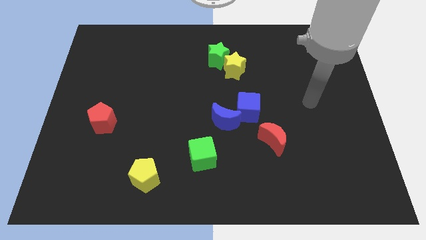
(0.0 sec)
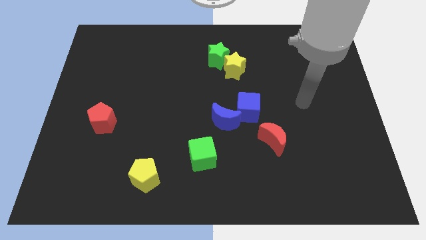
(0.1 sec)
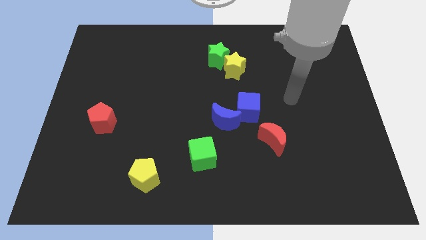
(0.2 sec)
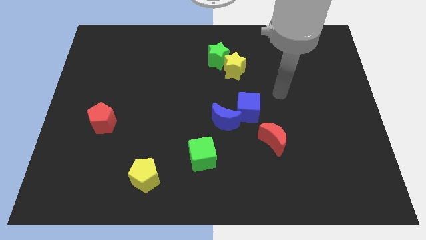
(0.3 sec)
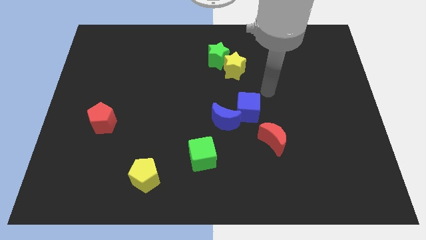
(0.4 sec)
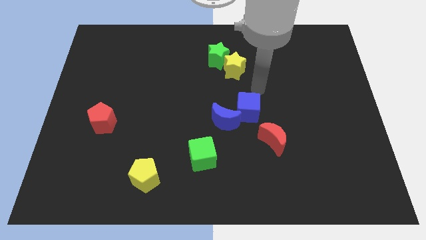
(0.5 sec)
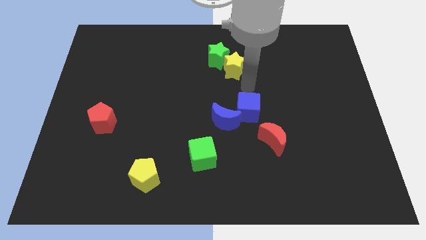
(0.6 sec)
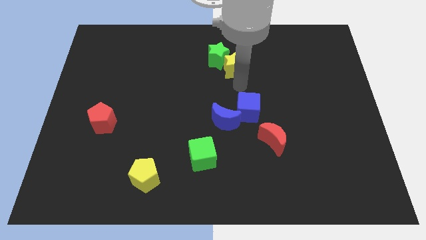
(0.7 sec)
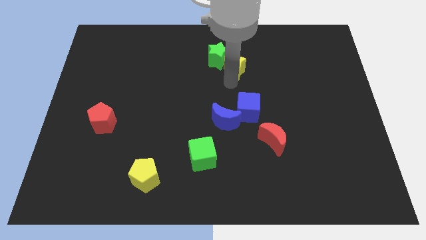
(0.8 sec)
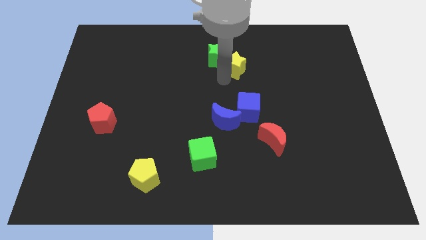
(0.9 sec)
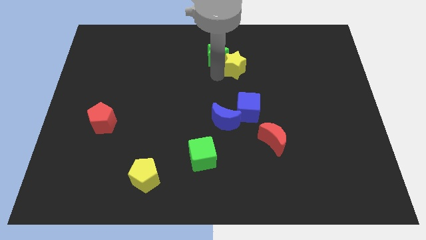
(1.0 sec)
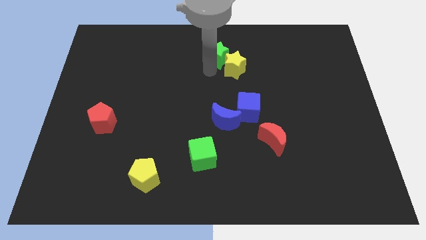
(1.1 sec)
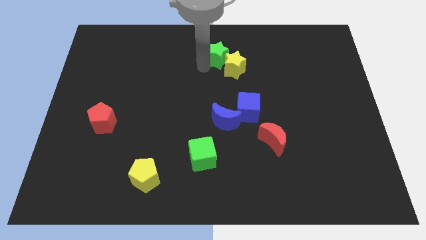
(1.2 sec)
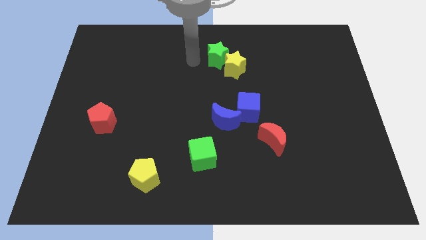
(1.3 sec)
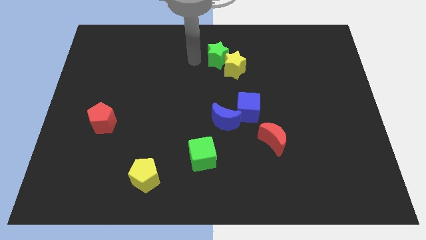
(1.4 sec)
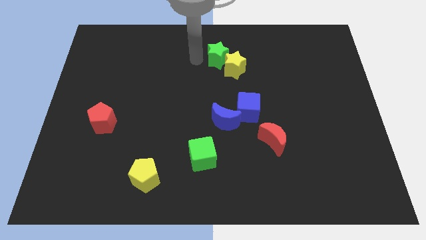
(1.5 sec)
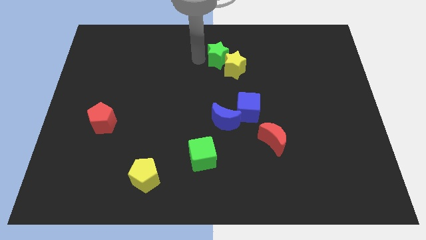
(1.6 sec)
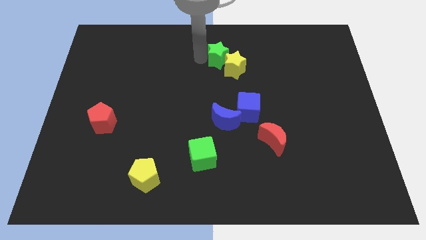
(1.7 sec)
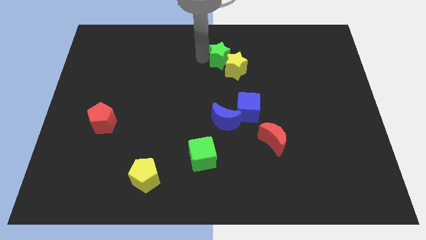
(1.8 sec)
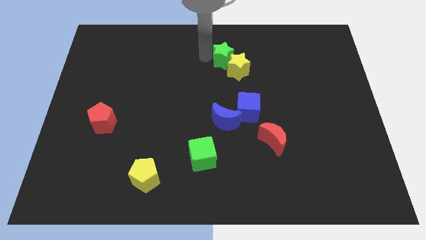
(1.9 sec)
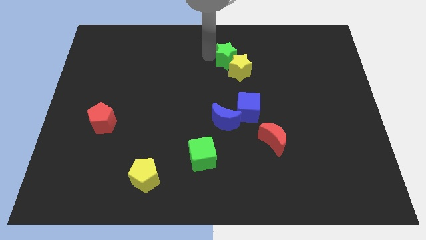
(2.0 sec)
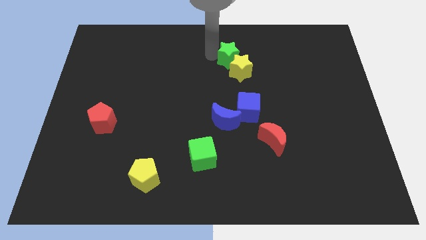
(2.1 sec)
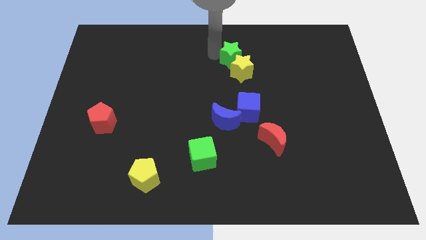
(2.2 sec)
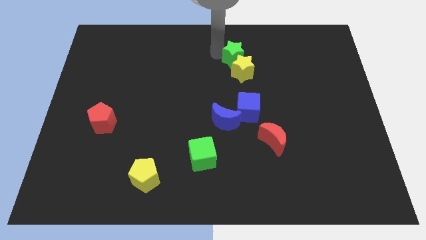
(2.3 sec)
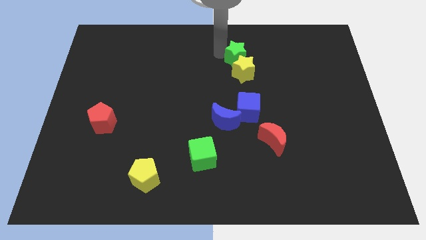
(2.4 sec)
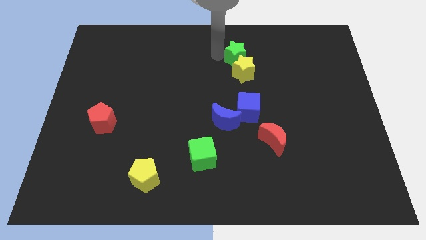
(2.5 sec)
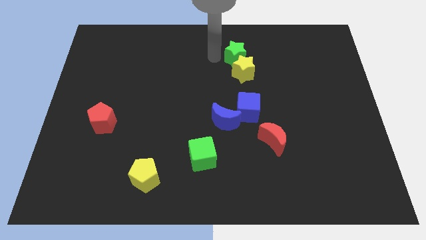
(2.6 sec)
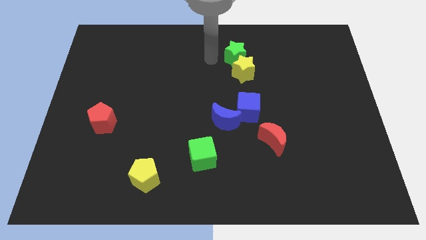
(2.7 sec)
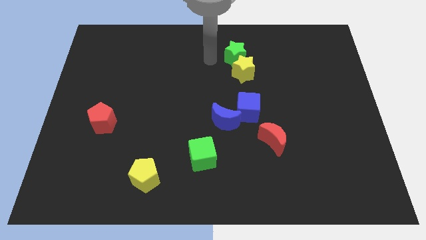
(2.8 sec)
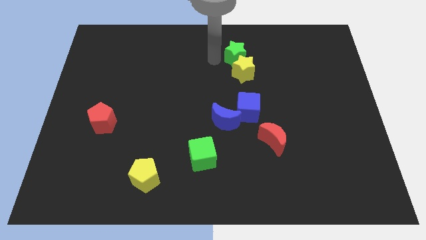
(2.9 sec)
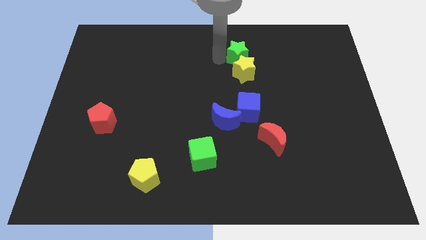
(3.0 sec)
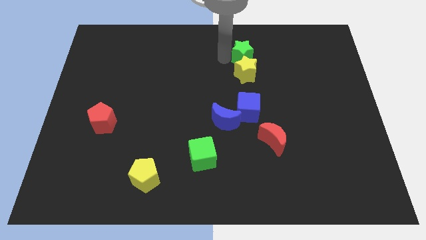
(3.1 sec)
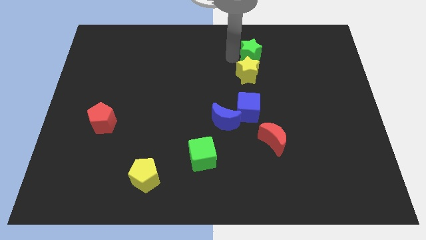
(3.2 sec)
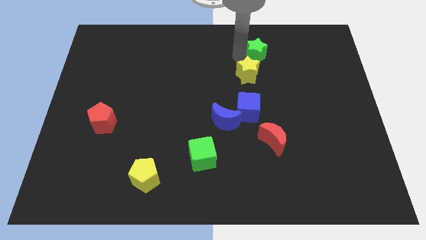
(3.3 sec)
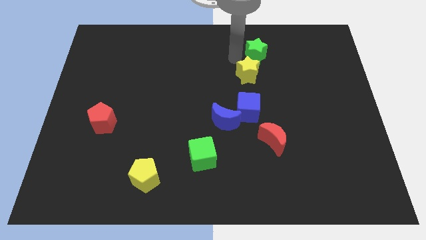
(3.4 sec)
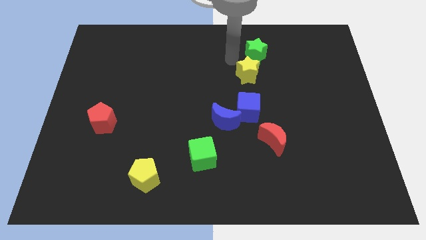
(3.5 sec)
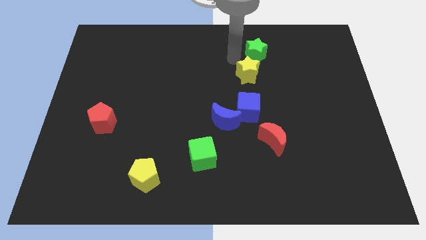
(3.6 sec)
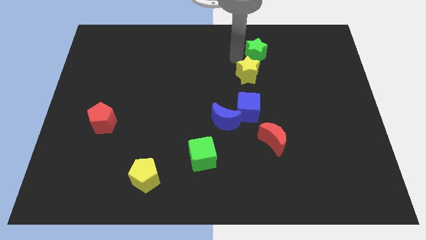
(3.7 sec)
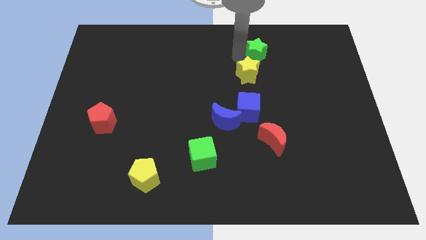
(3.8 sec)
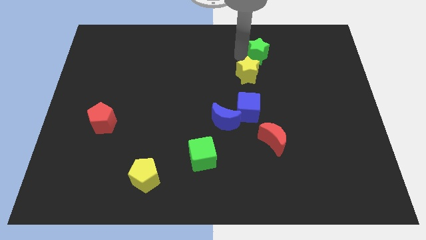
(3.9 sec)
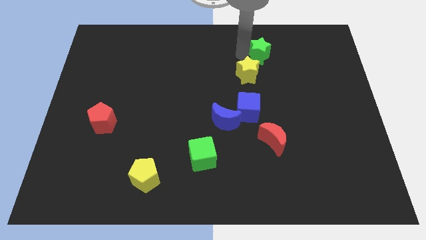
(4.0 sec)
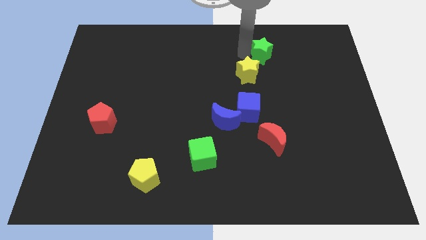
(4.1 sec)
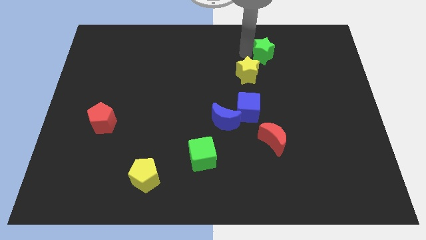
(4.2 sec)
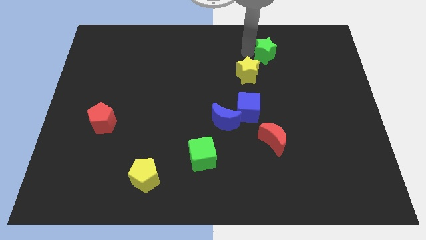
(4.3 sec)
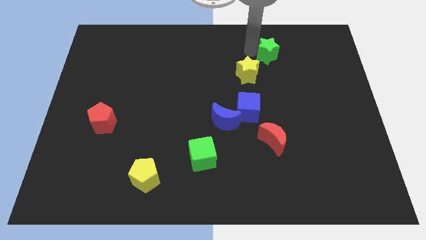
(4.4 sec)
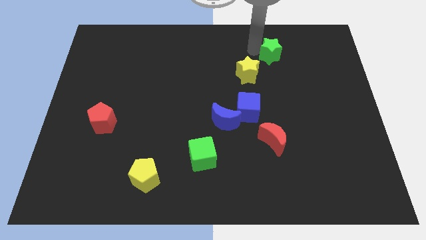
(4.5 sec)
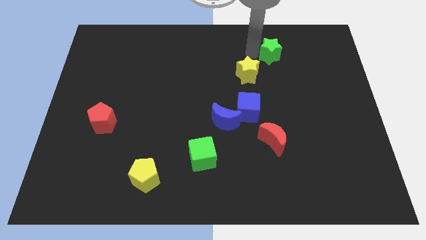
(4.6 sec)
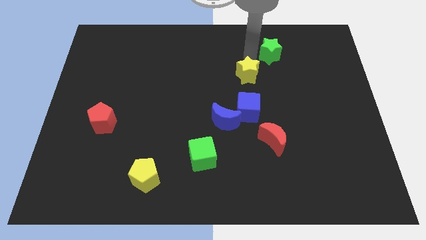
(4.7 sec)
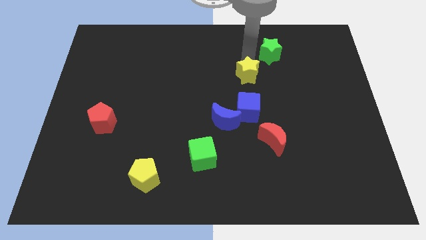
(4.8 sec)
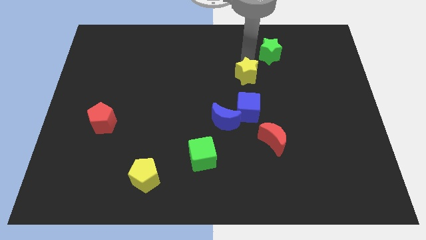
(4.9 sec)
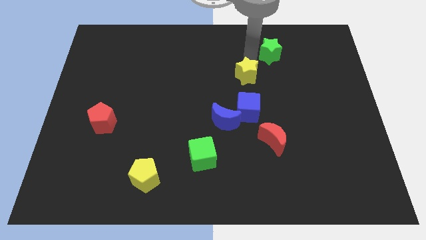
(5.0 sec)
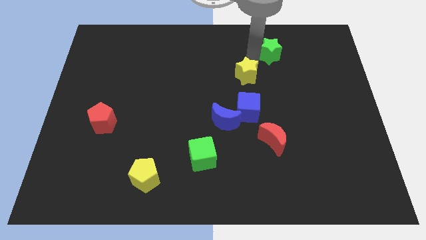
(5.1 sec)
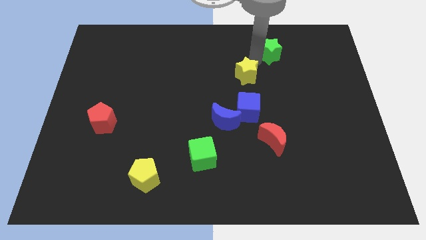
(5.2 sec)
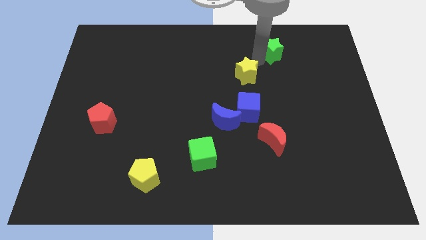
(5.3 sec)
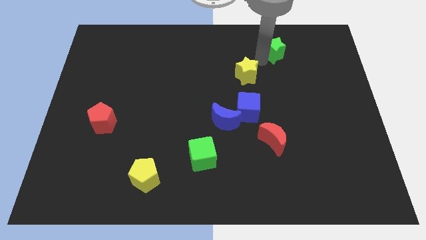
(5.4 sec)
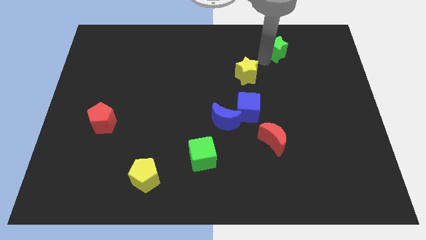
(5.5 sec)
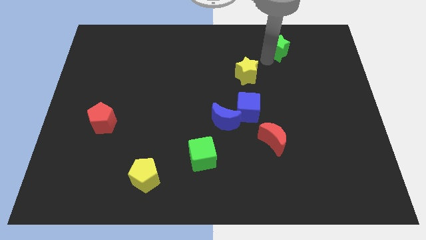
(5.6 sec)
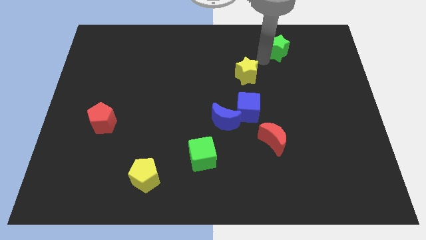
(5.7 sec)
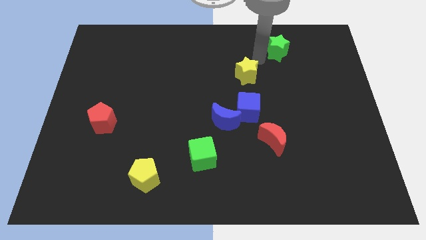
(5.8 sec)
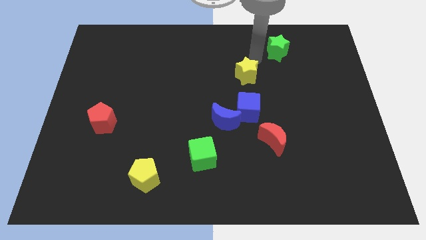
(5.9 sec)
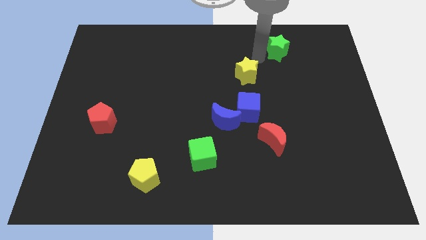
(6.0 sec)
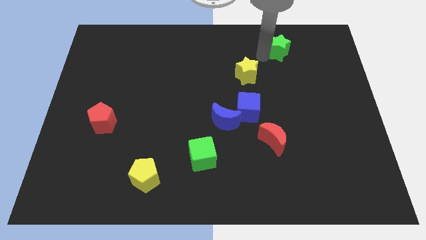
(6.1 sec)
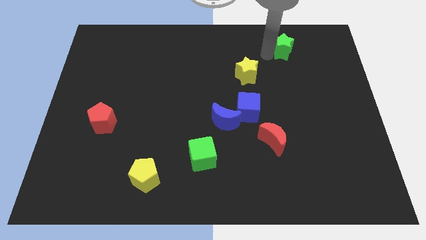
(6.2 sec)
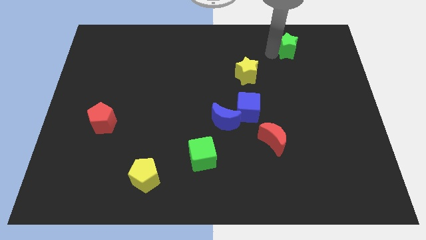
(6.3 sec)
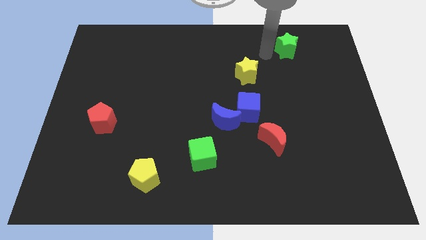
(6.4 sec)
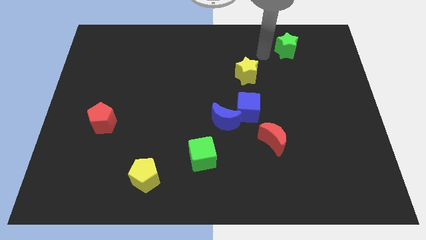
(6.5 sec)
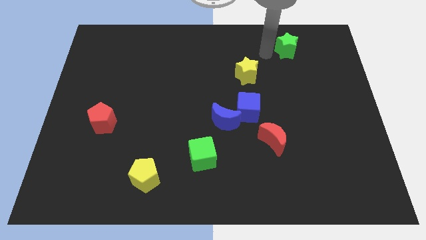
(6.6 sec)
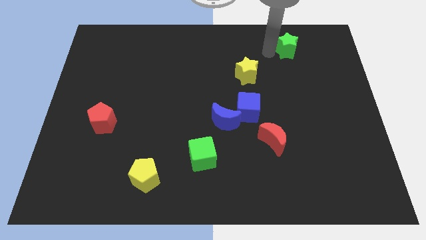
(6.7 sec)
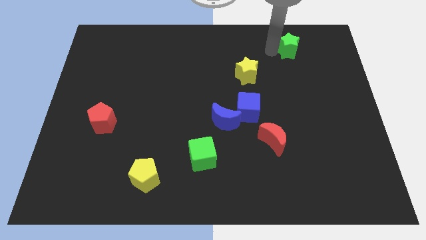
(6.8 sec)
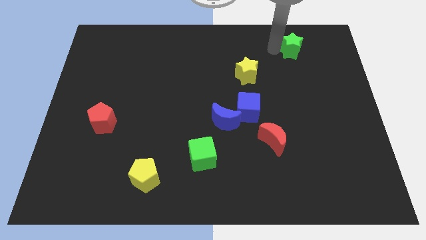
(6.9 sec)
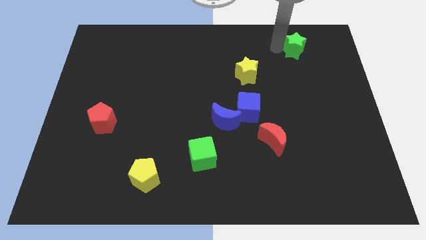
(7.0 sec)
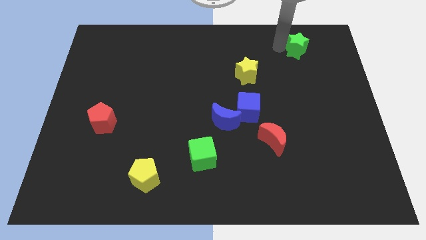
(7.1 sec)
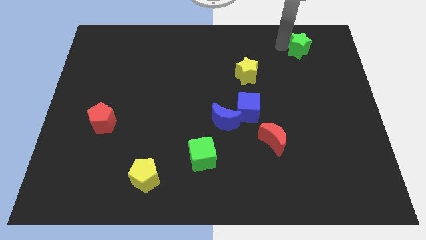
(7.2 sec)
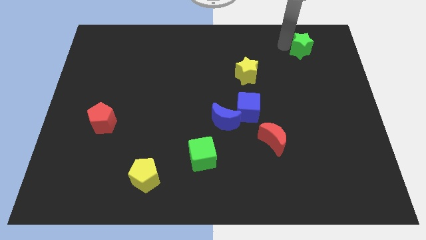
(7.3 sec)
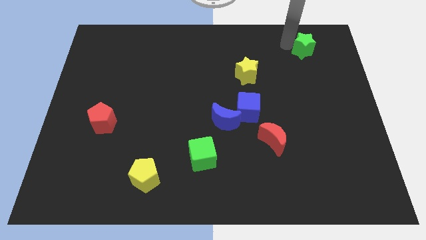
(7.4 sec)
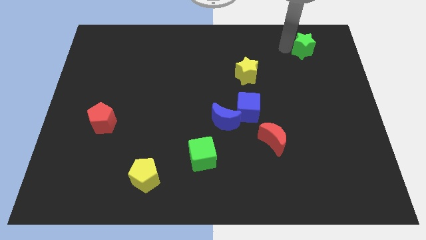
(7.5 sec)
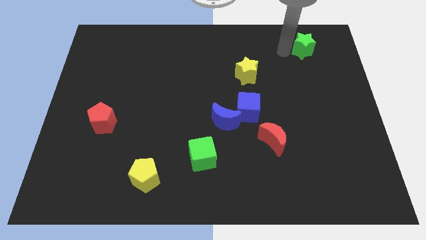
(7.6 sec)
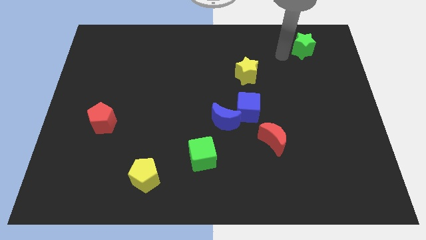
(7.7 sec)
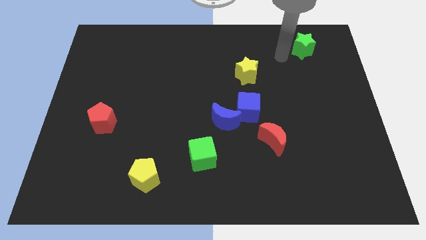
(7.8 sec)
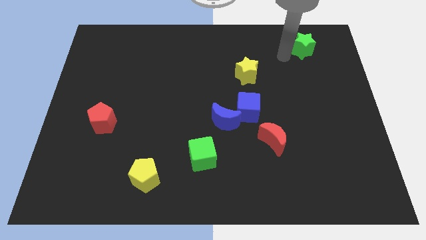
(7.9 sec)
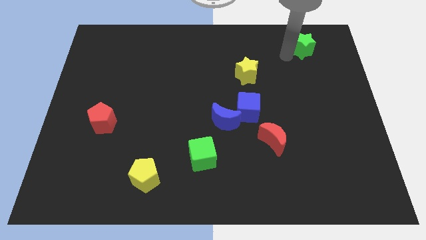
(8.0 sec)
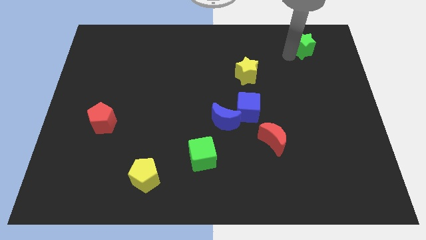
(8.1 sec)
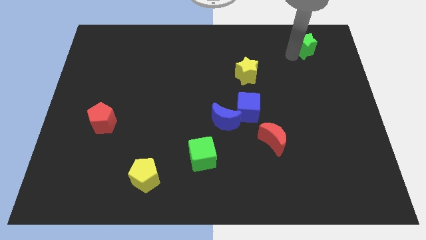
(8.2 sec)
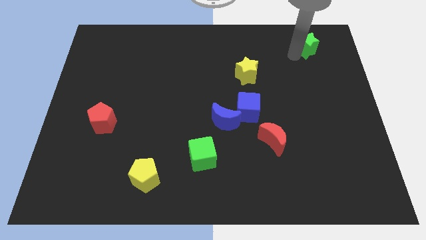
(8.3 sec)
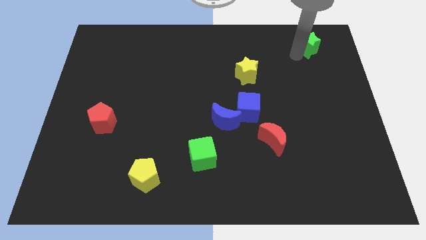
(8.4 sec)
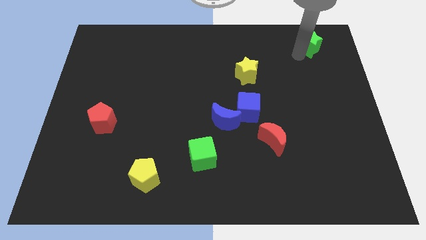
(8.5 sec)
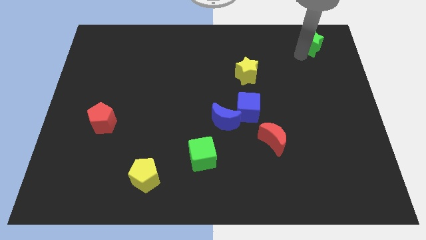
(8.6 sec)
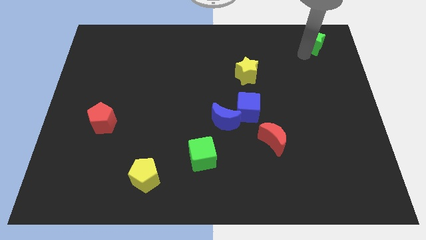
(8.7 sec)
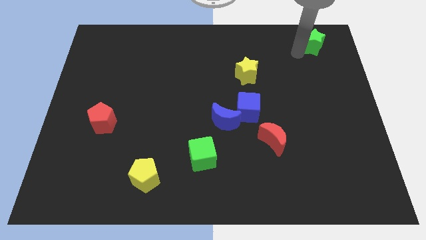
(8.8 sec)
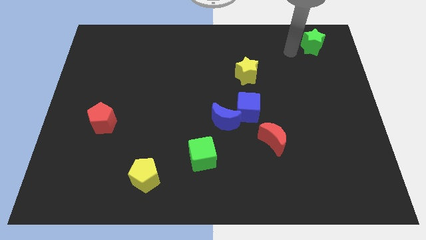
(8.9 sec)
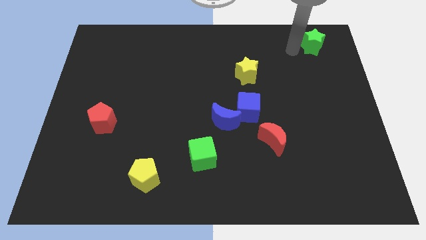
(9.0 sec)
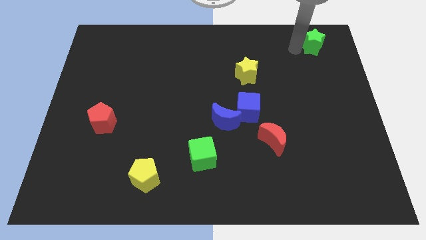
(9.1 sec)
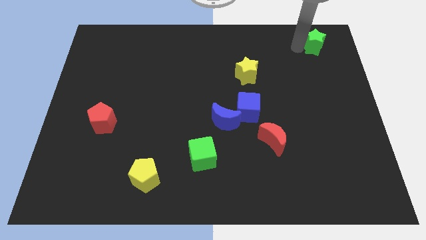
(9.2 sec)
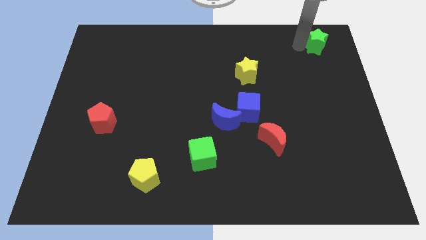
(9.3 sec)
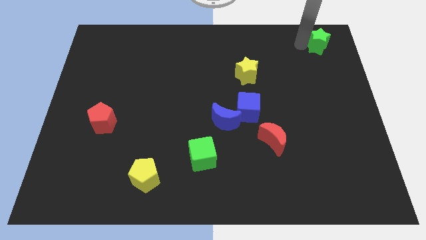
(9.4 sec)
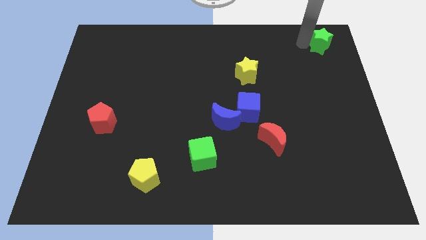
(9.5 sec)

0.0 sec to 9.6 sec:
push the green star to the top right of the board
